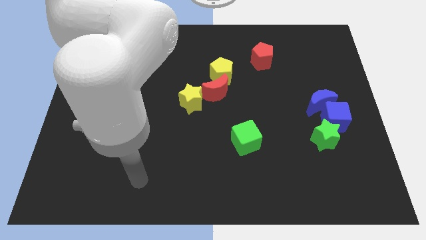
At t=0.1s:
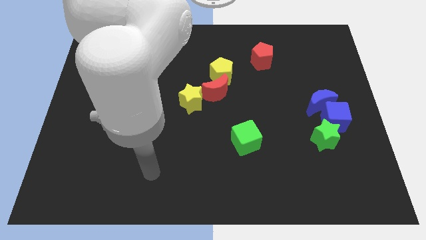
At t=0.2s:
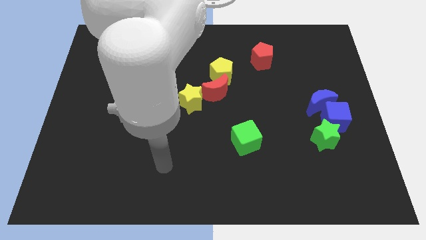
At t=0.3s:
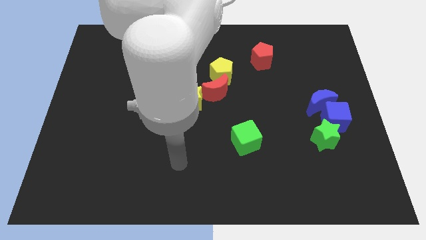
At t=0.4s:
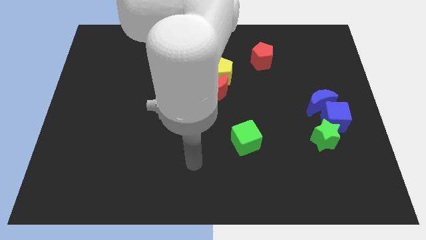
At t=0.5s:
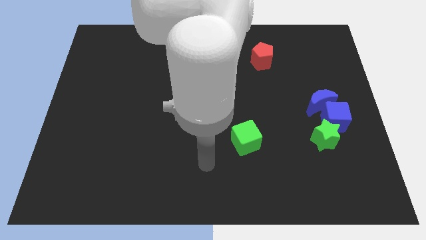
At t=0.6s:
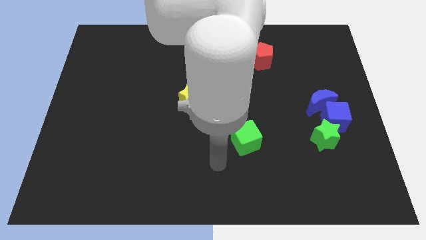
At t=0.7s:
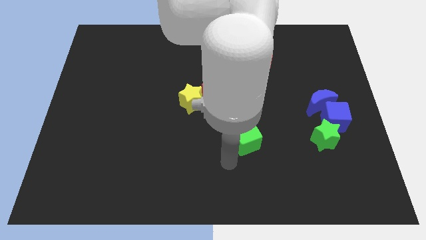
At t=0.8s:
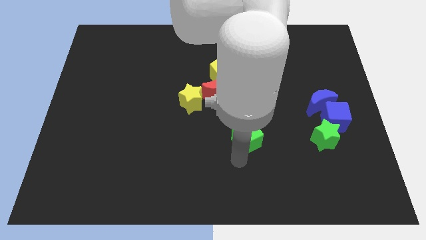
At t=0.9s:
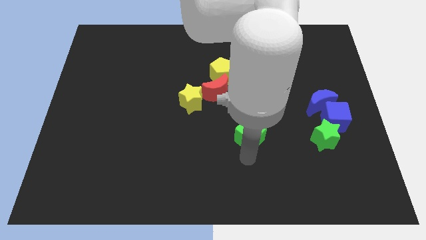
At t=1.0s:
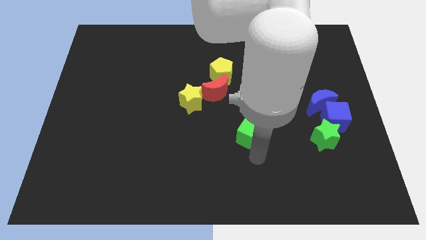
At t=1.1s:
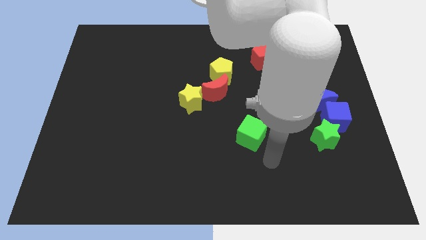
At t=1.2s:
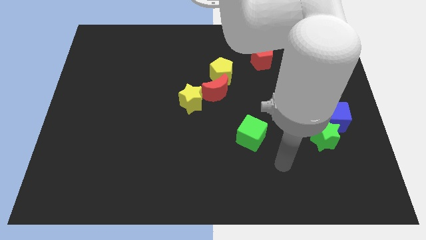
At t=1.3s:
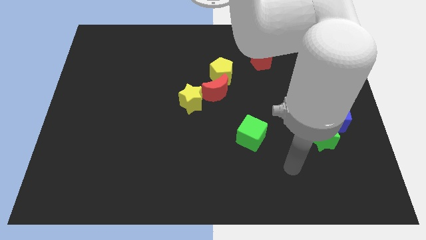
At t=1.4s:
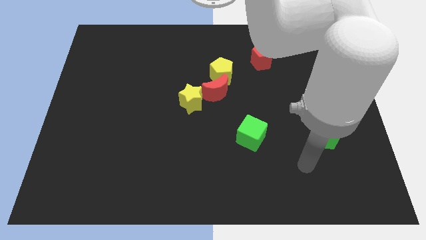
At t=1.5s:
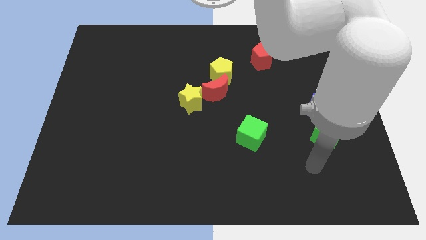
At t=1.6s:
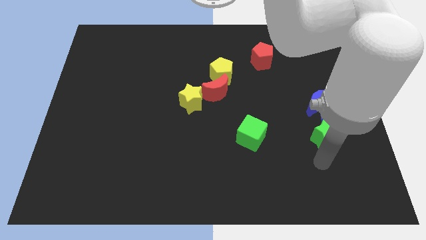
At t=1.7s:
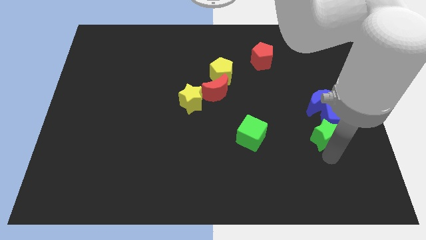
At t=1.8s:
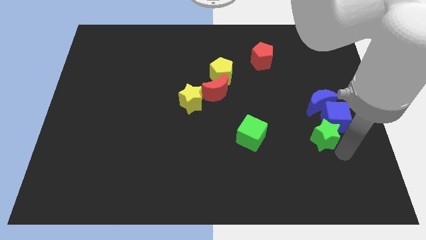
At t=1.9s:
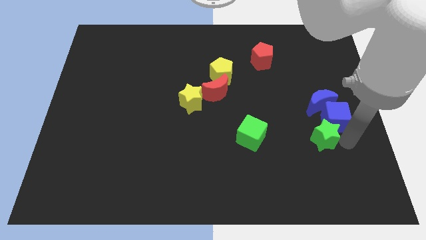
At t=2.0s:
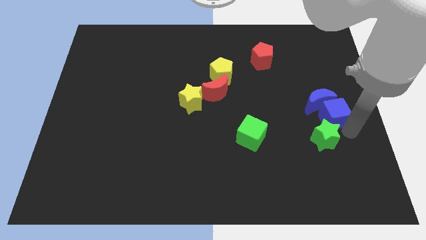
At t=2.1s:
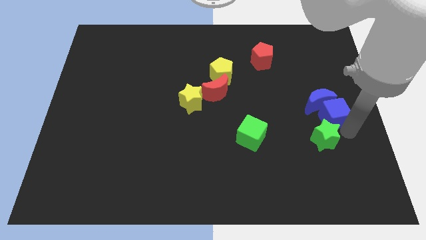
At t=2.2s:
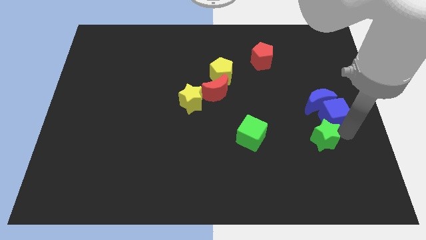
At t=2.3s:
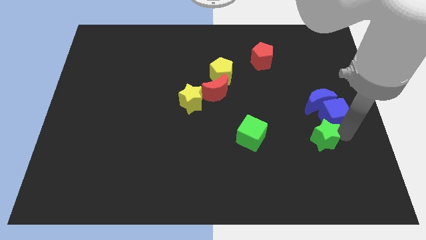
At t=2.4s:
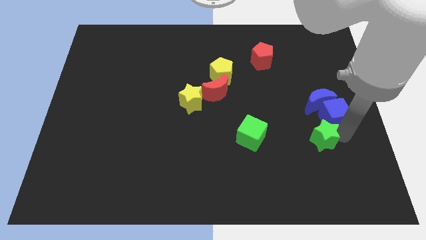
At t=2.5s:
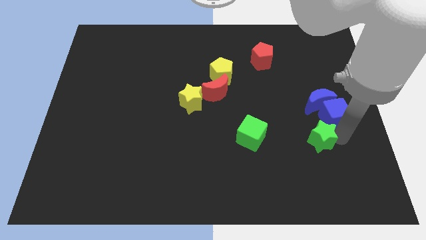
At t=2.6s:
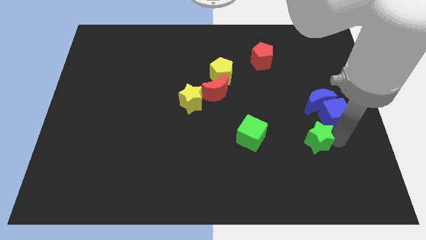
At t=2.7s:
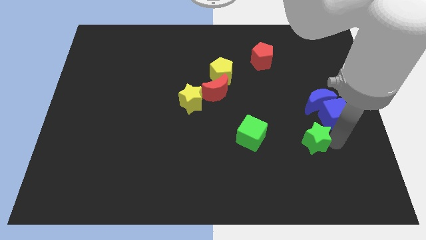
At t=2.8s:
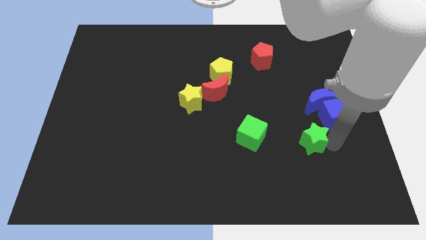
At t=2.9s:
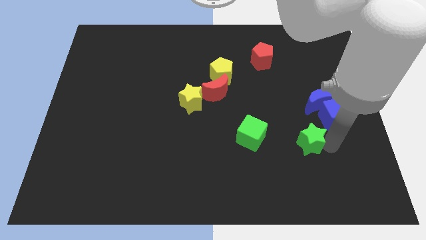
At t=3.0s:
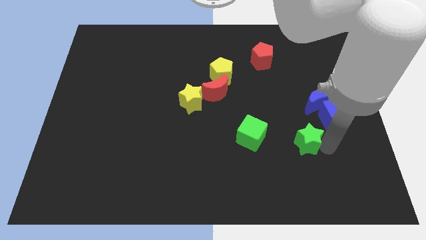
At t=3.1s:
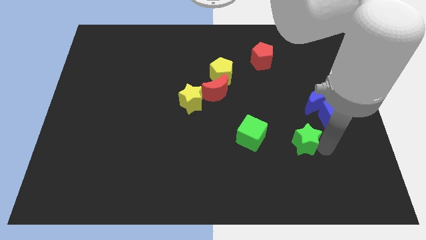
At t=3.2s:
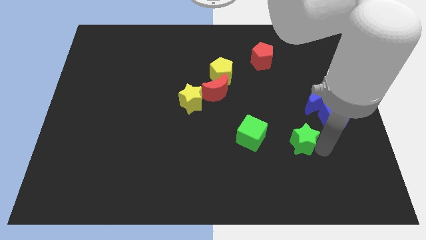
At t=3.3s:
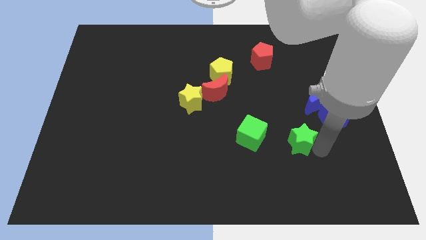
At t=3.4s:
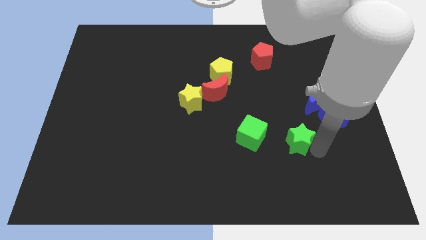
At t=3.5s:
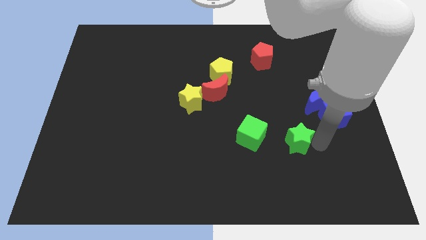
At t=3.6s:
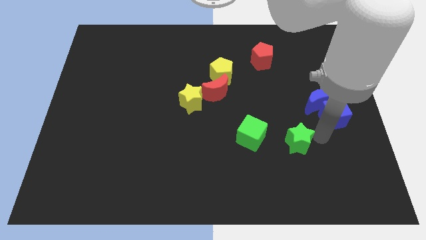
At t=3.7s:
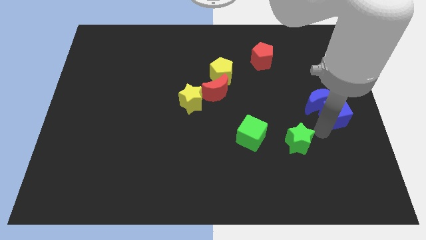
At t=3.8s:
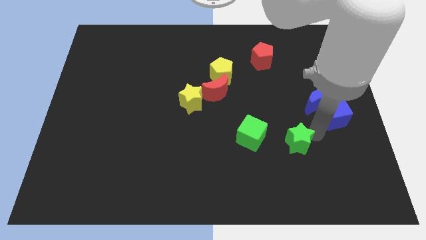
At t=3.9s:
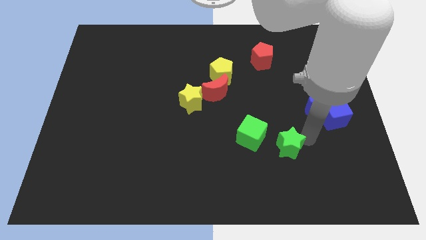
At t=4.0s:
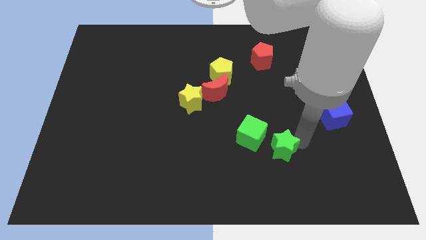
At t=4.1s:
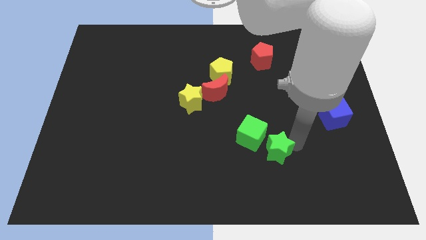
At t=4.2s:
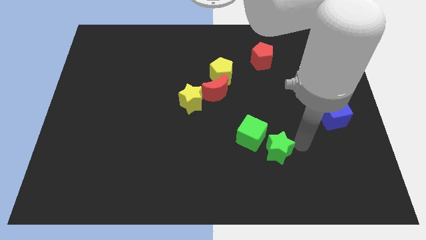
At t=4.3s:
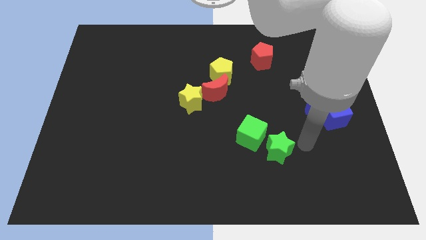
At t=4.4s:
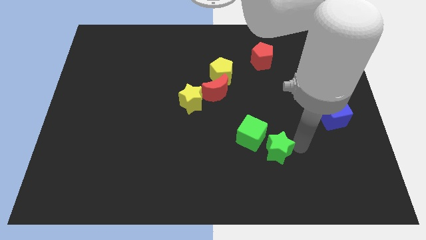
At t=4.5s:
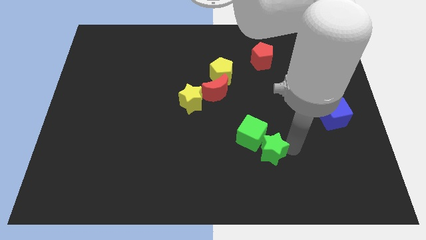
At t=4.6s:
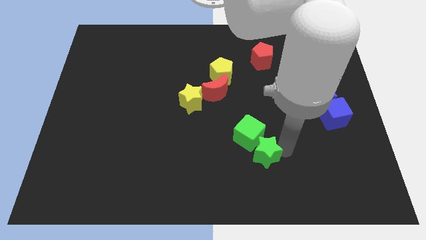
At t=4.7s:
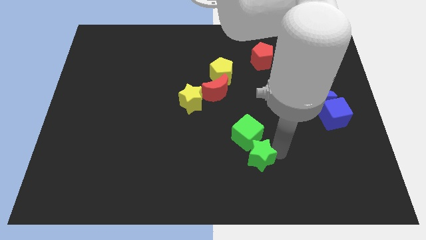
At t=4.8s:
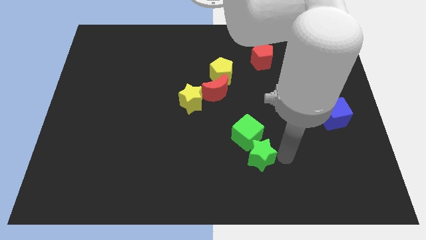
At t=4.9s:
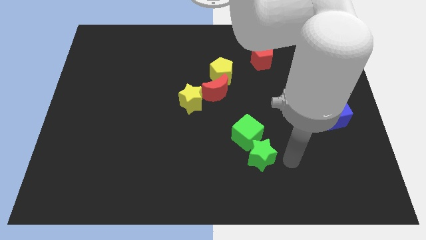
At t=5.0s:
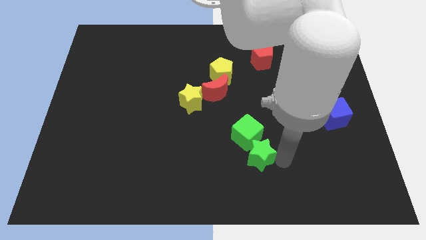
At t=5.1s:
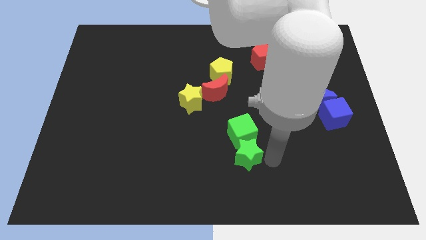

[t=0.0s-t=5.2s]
slide the green star to the bottom left side of the green cube

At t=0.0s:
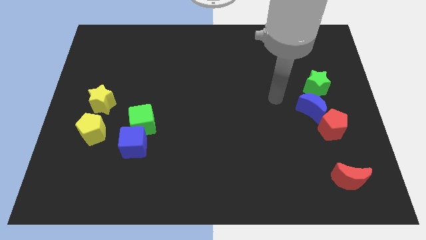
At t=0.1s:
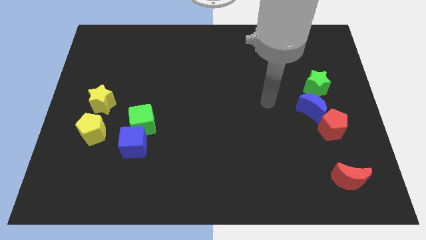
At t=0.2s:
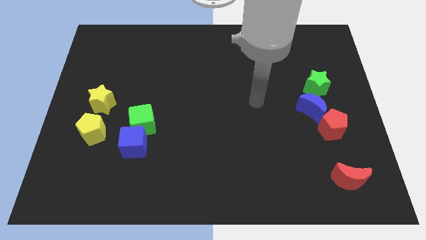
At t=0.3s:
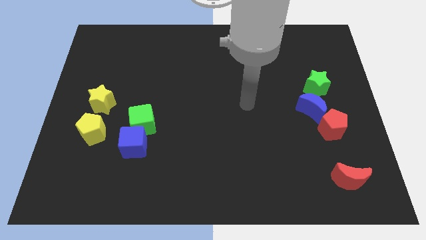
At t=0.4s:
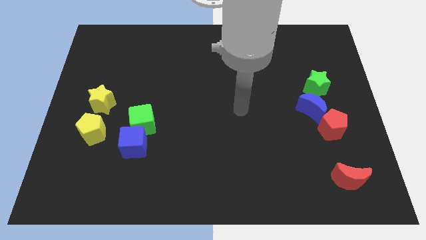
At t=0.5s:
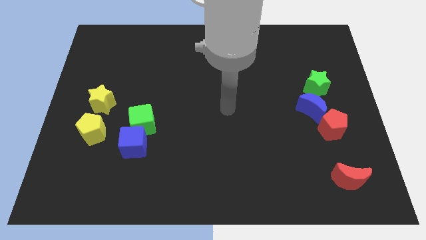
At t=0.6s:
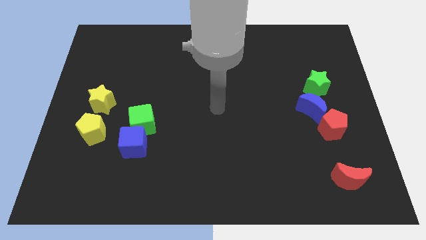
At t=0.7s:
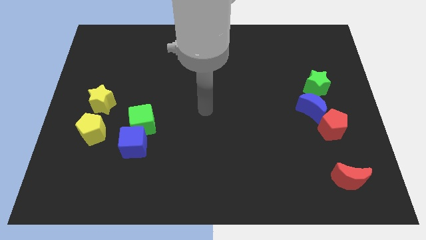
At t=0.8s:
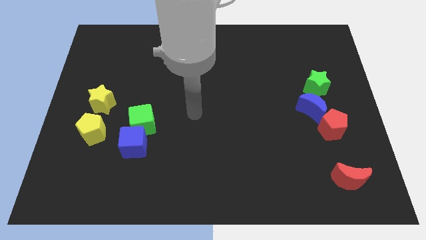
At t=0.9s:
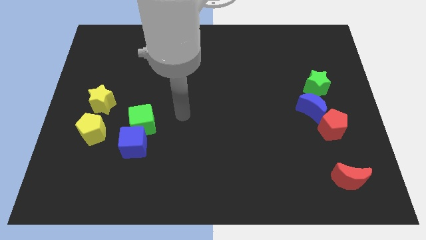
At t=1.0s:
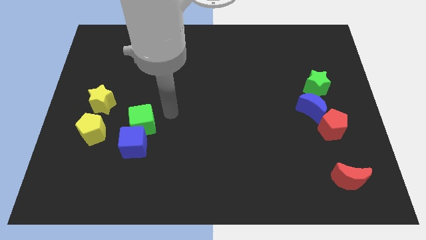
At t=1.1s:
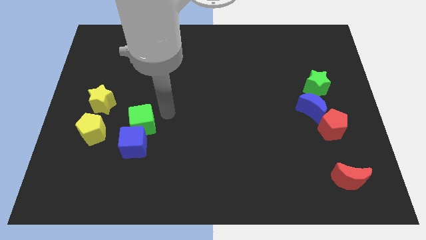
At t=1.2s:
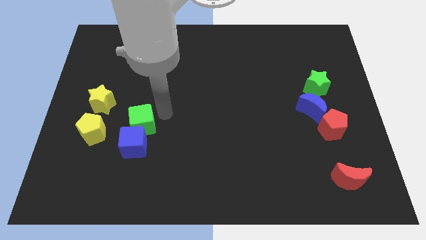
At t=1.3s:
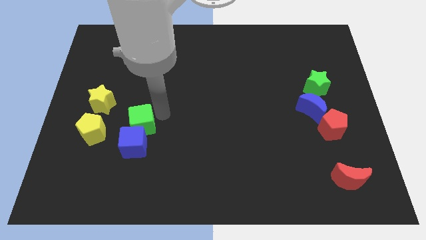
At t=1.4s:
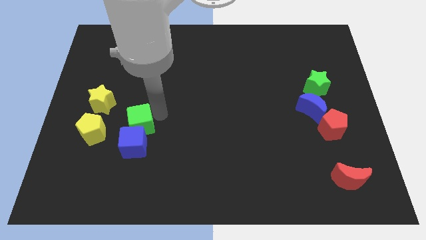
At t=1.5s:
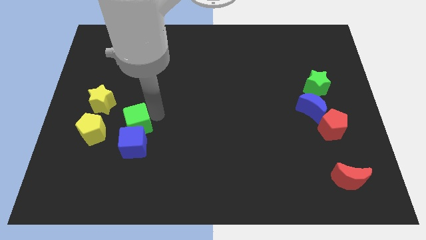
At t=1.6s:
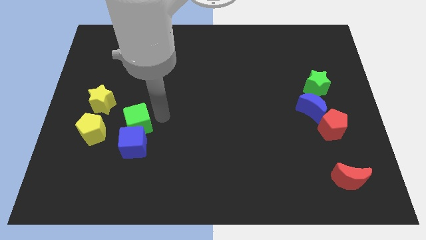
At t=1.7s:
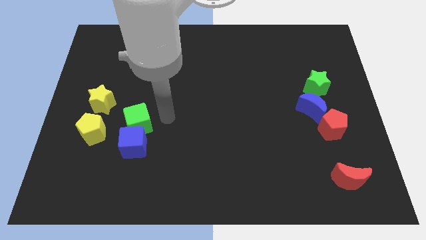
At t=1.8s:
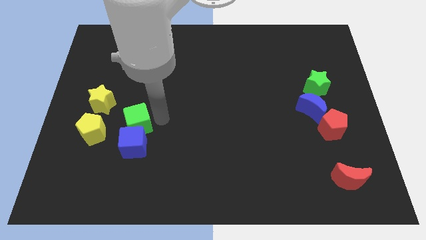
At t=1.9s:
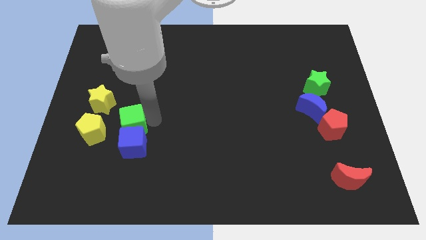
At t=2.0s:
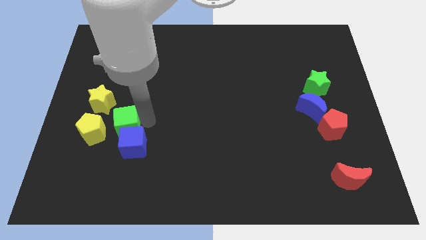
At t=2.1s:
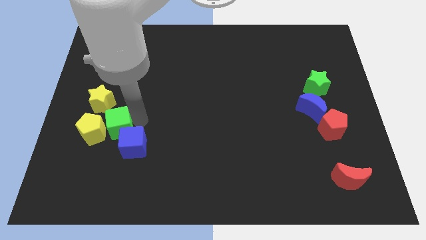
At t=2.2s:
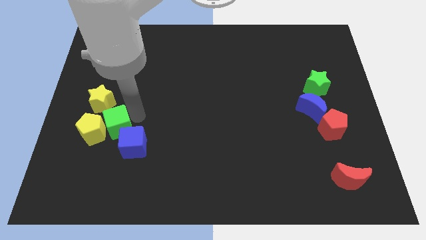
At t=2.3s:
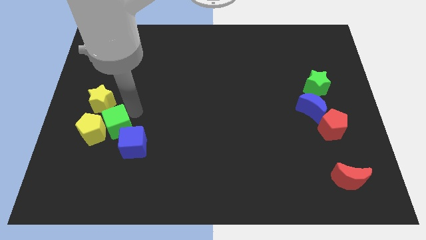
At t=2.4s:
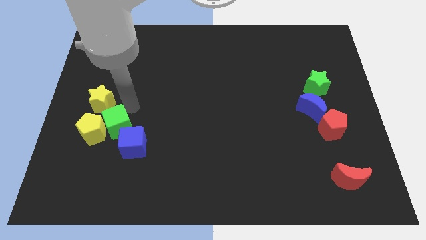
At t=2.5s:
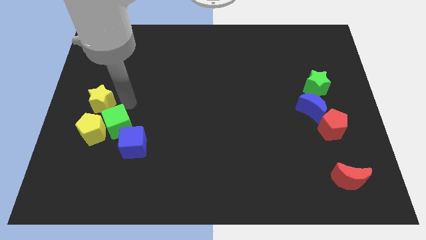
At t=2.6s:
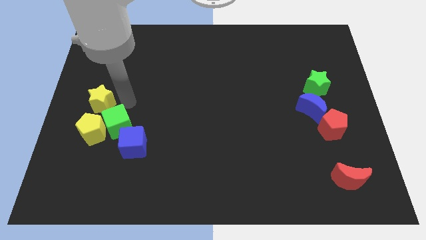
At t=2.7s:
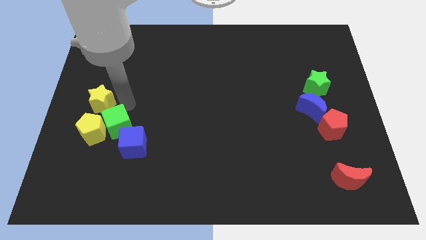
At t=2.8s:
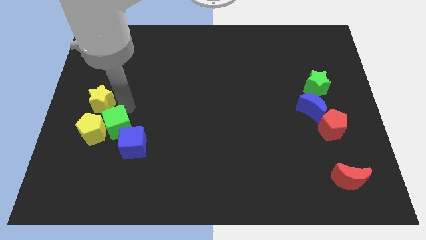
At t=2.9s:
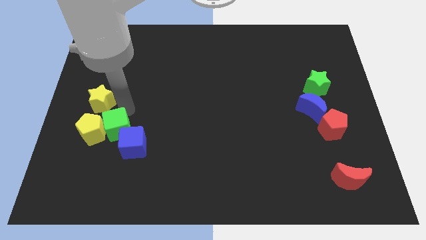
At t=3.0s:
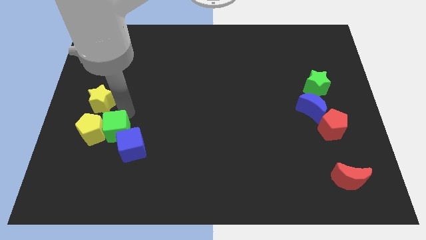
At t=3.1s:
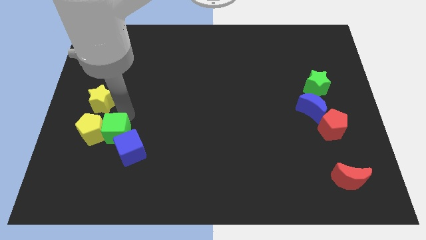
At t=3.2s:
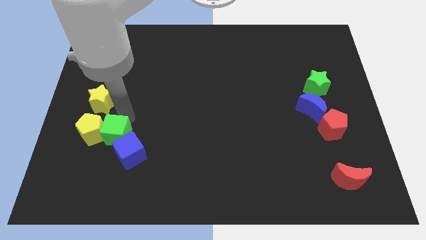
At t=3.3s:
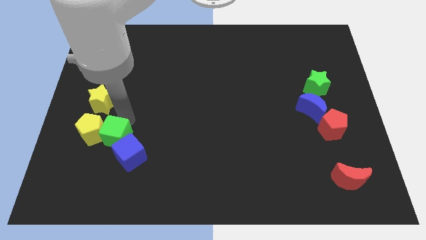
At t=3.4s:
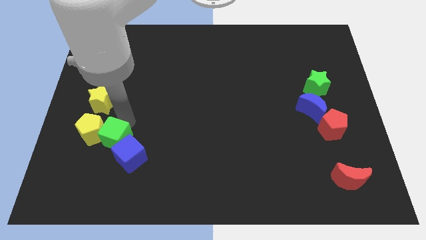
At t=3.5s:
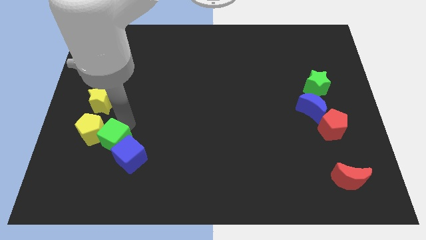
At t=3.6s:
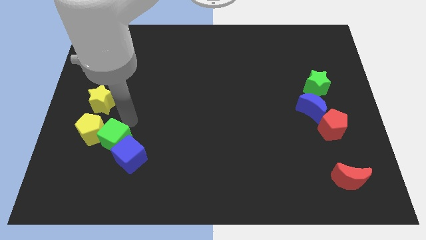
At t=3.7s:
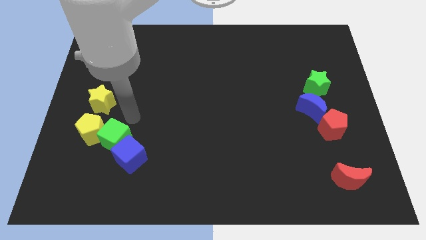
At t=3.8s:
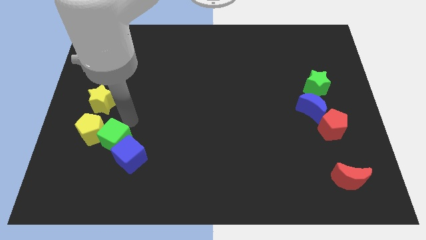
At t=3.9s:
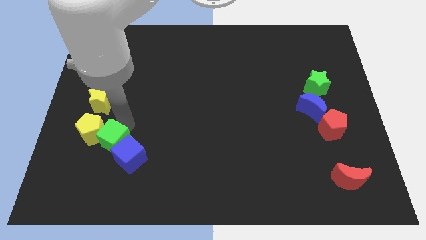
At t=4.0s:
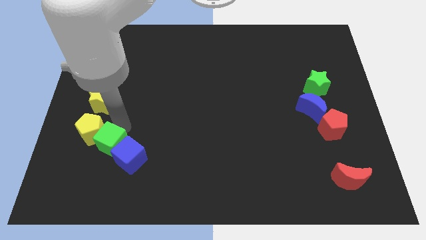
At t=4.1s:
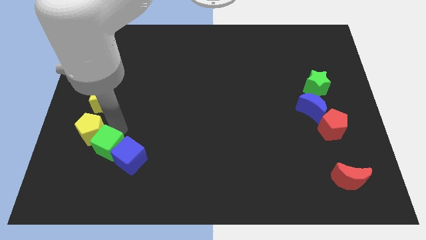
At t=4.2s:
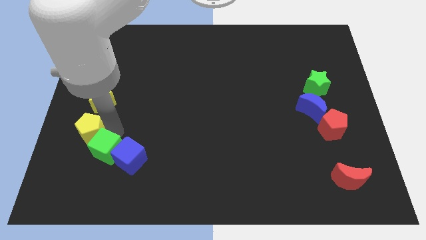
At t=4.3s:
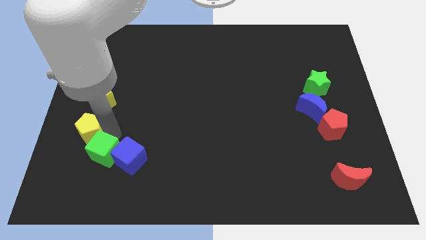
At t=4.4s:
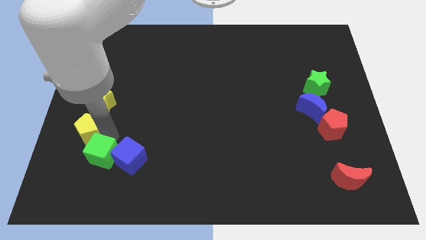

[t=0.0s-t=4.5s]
put the green cube diagonally down and to the left of the blue cube
